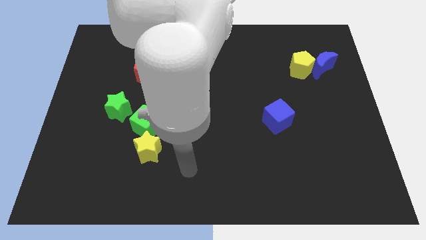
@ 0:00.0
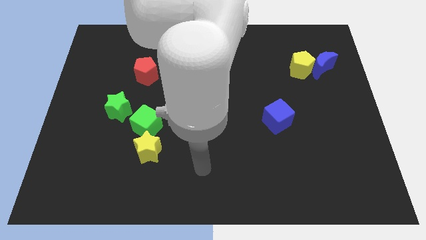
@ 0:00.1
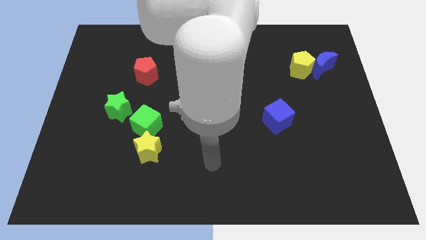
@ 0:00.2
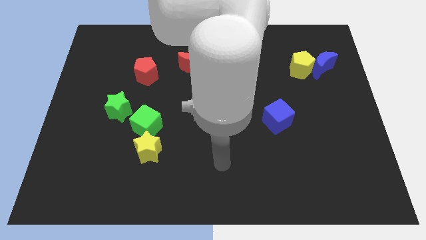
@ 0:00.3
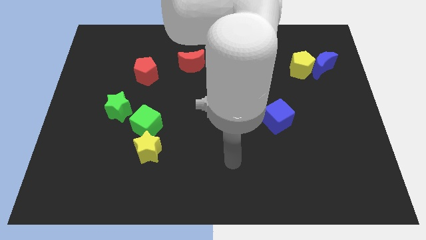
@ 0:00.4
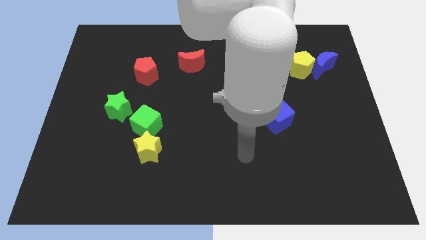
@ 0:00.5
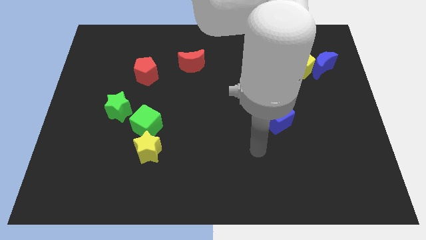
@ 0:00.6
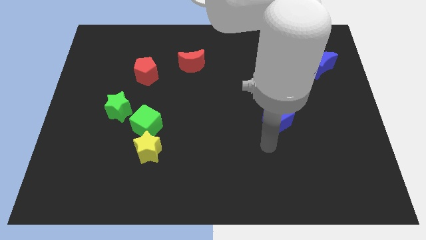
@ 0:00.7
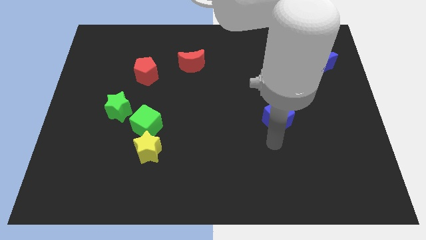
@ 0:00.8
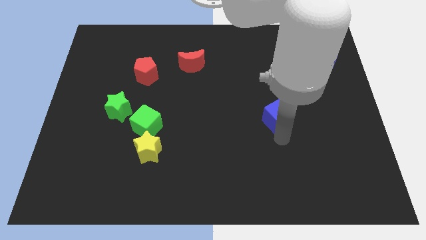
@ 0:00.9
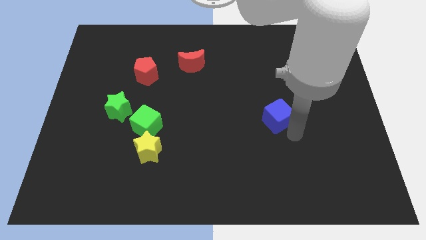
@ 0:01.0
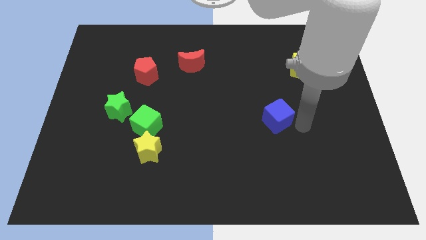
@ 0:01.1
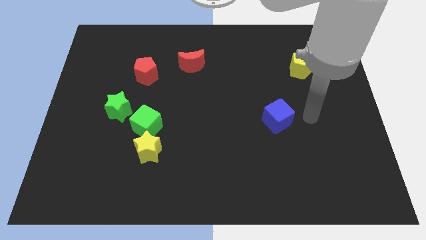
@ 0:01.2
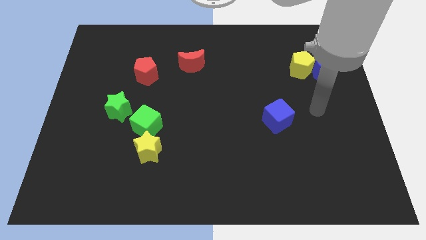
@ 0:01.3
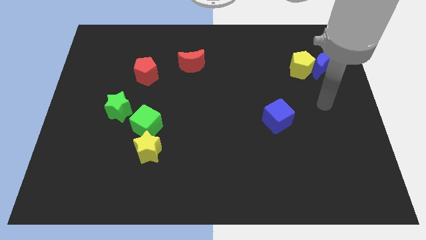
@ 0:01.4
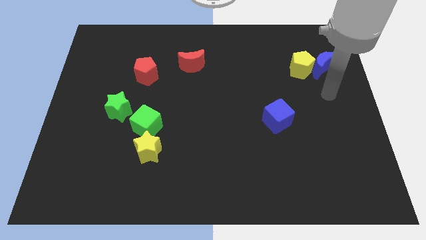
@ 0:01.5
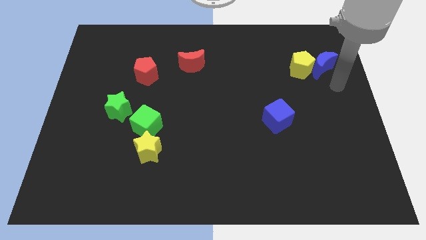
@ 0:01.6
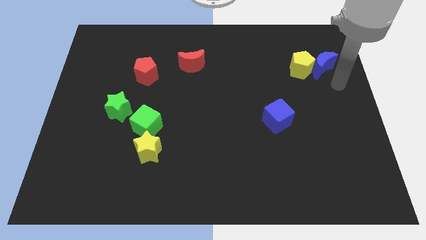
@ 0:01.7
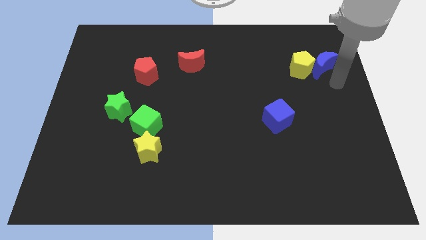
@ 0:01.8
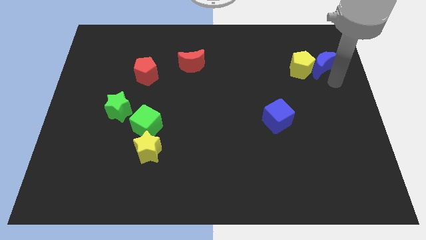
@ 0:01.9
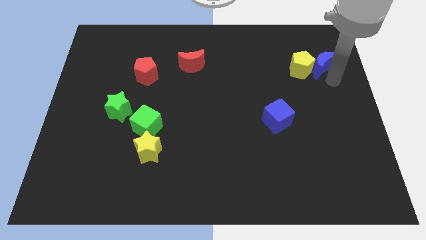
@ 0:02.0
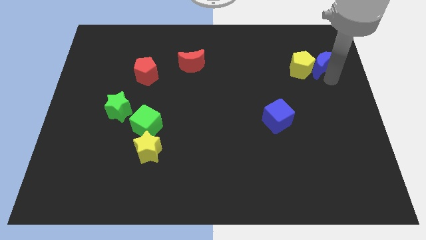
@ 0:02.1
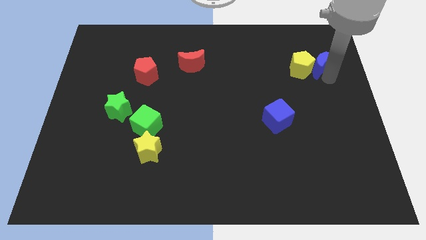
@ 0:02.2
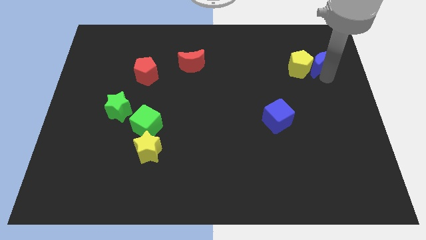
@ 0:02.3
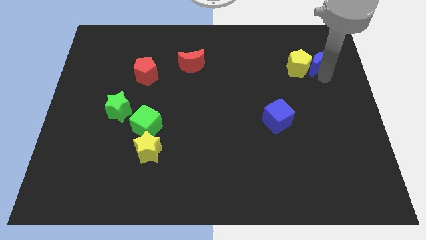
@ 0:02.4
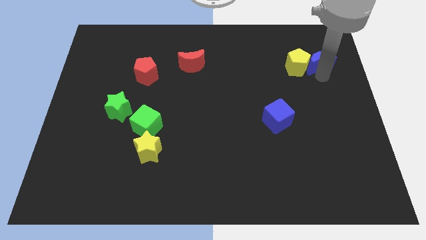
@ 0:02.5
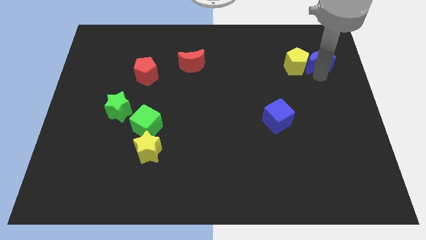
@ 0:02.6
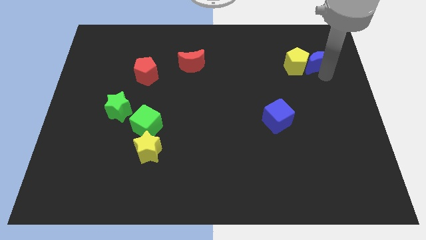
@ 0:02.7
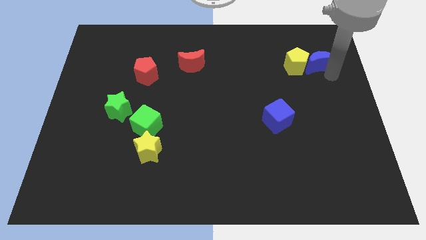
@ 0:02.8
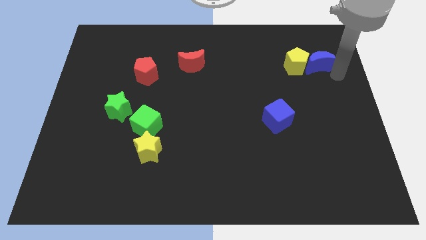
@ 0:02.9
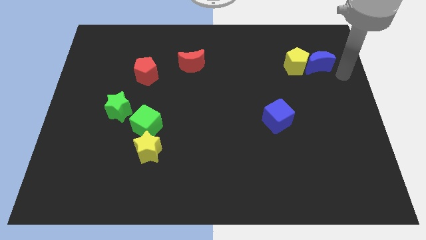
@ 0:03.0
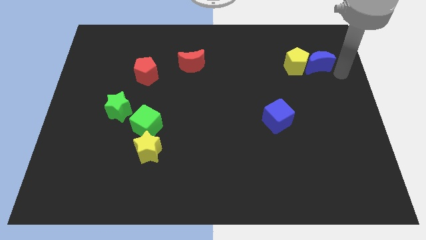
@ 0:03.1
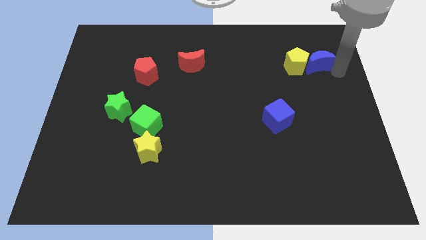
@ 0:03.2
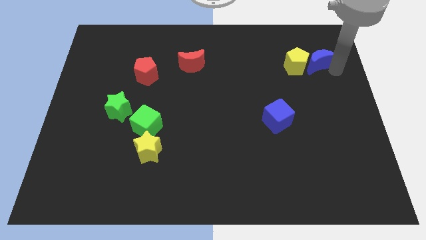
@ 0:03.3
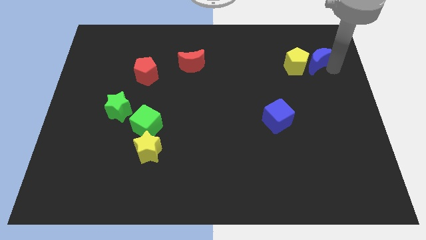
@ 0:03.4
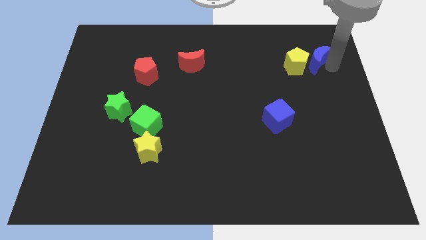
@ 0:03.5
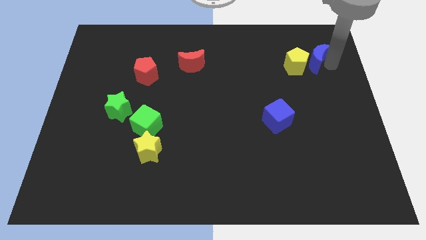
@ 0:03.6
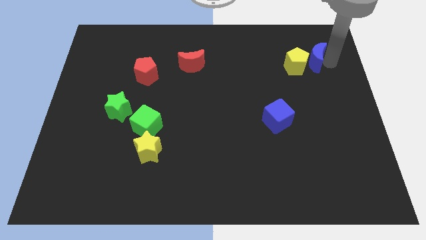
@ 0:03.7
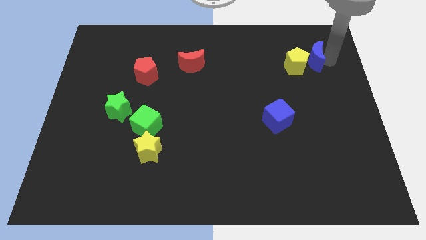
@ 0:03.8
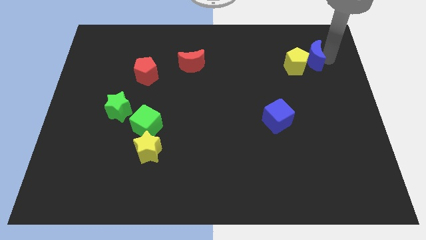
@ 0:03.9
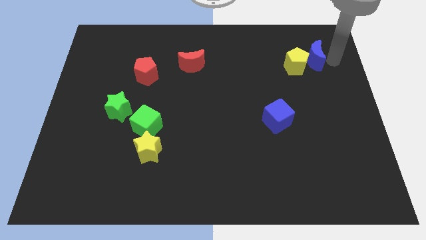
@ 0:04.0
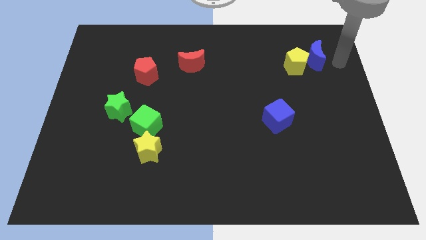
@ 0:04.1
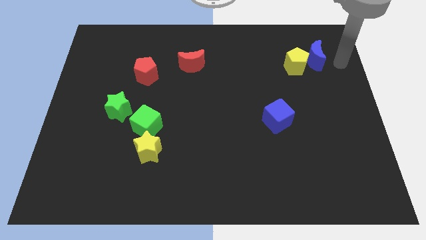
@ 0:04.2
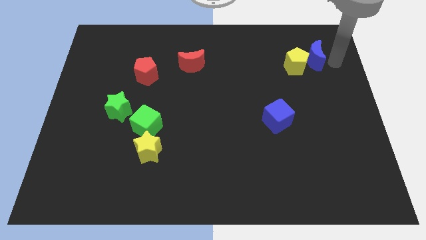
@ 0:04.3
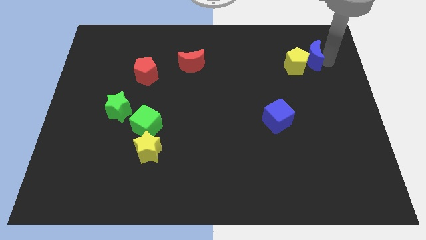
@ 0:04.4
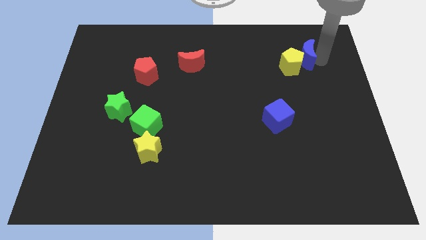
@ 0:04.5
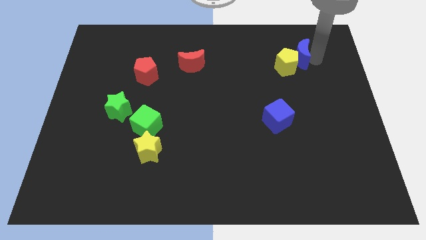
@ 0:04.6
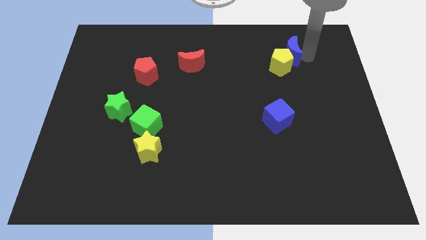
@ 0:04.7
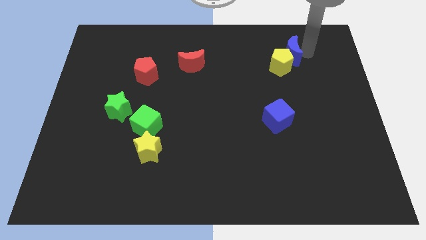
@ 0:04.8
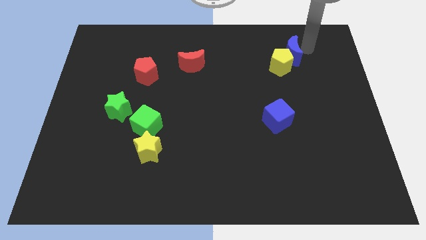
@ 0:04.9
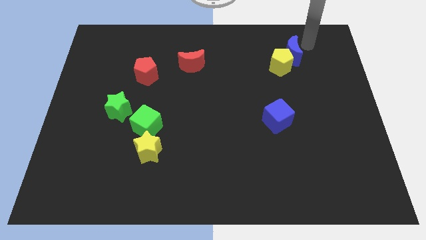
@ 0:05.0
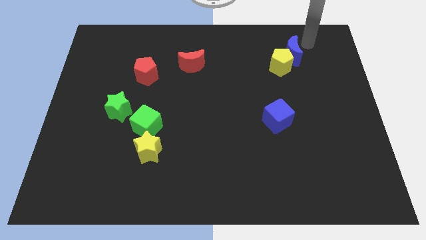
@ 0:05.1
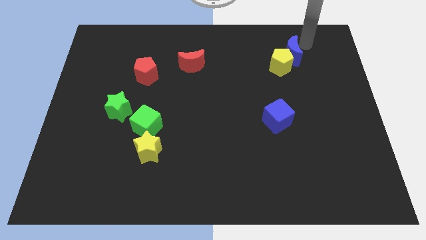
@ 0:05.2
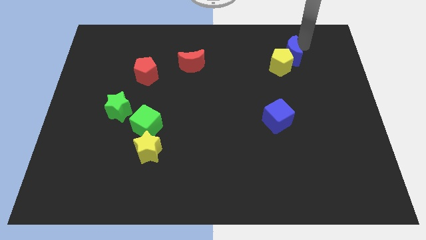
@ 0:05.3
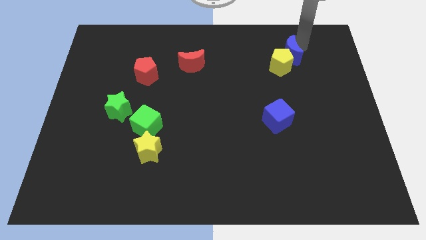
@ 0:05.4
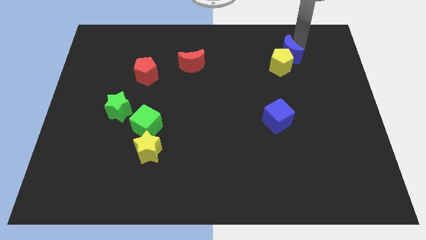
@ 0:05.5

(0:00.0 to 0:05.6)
move the blue moon a little to the left

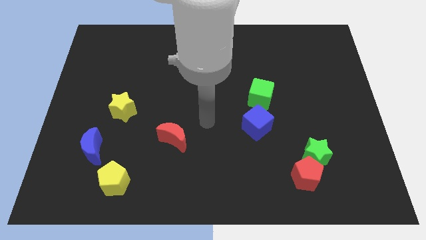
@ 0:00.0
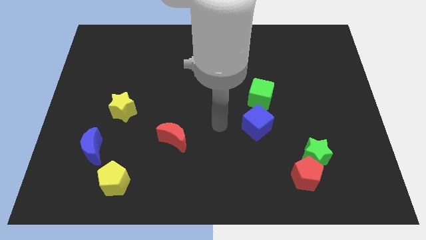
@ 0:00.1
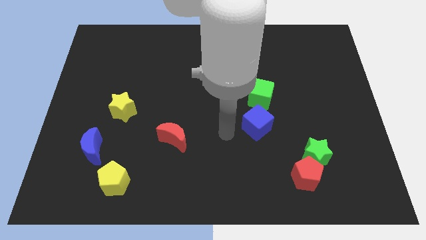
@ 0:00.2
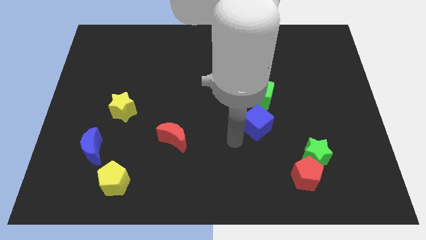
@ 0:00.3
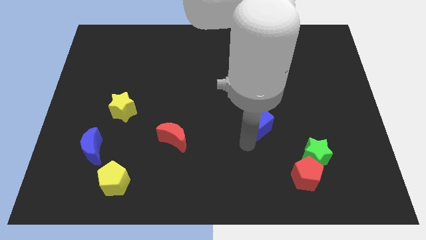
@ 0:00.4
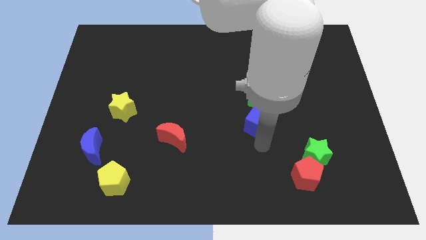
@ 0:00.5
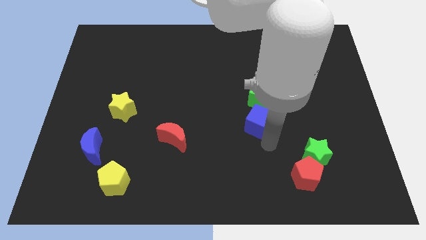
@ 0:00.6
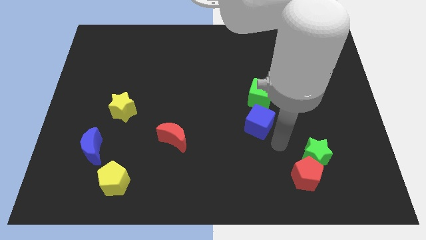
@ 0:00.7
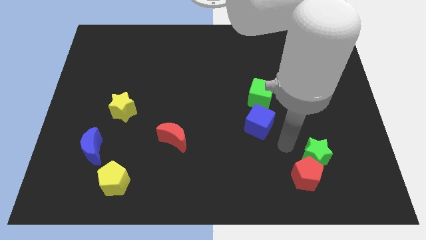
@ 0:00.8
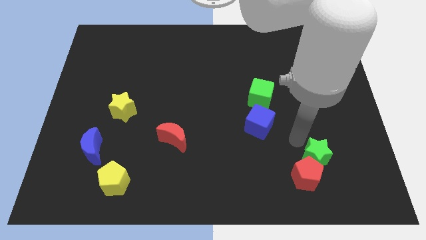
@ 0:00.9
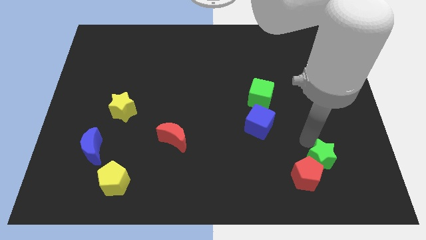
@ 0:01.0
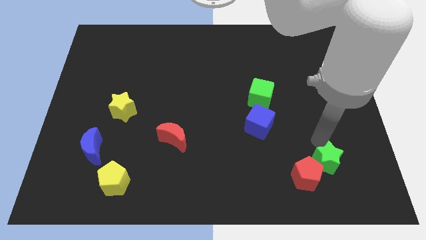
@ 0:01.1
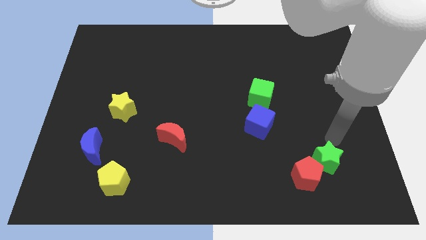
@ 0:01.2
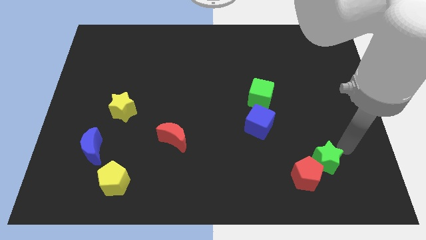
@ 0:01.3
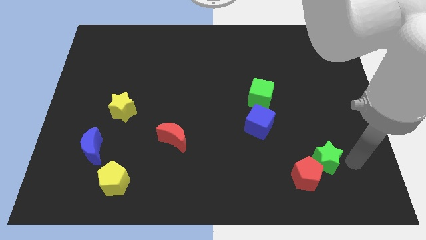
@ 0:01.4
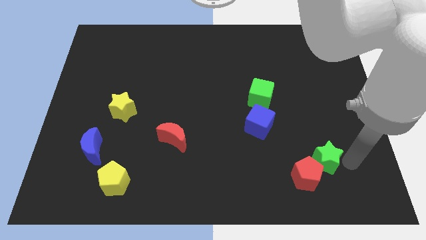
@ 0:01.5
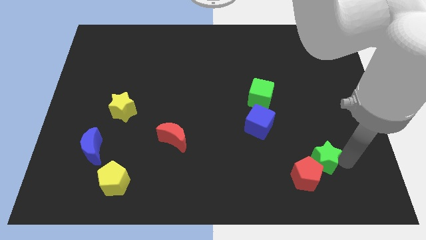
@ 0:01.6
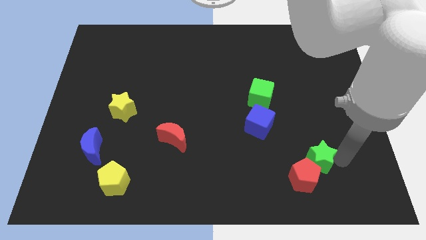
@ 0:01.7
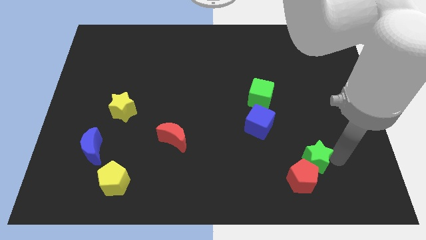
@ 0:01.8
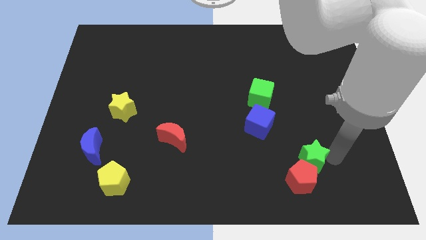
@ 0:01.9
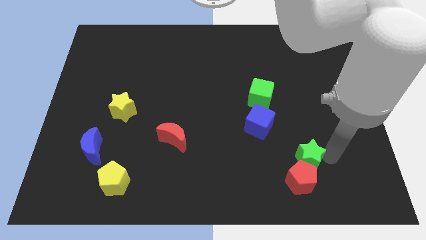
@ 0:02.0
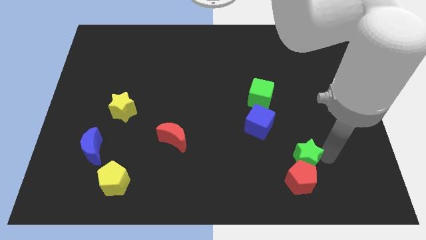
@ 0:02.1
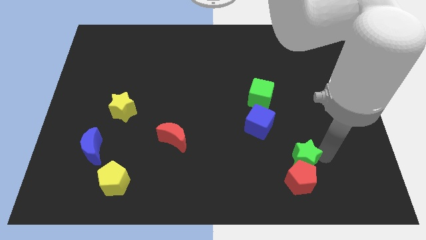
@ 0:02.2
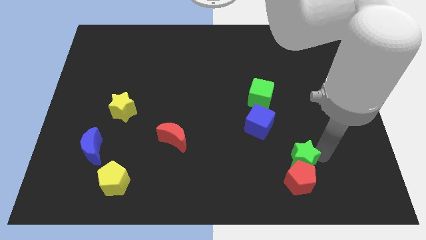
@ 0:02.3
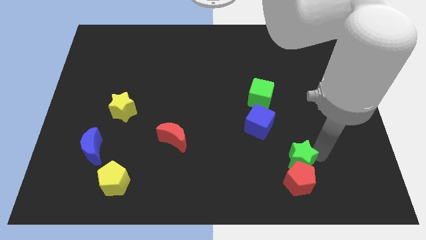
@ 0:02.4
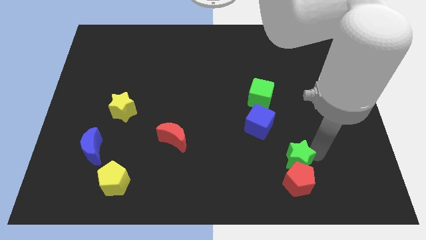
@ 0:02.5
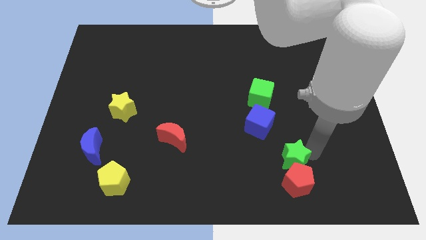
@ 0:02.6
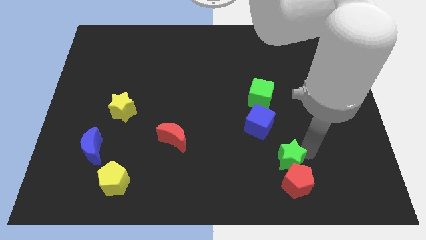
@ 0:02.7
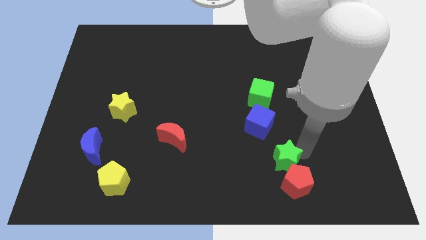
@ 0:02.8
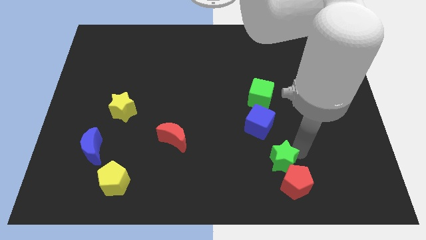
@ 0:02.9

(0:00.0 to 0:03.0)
slide the green star left somewhat
